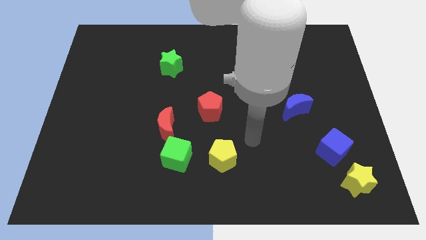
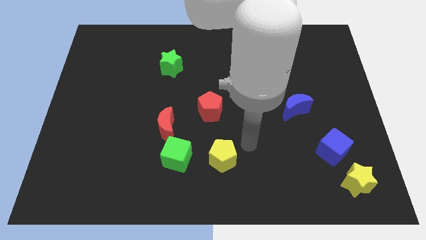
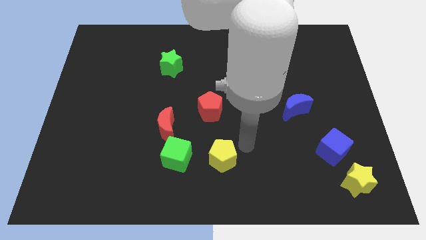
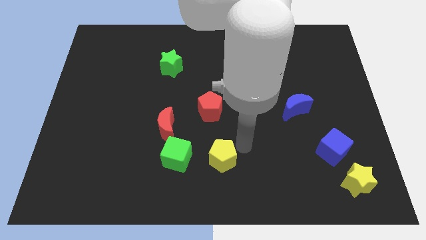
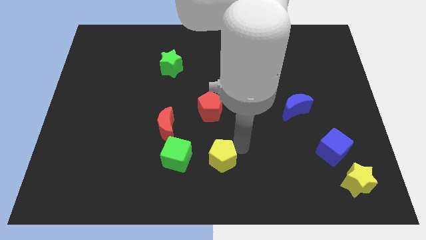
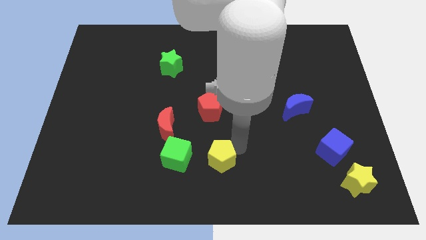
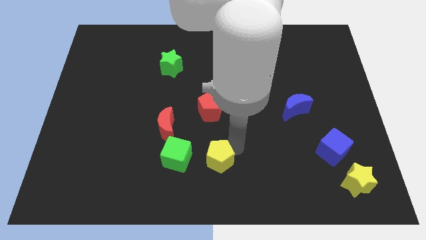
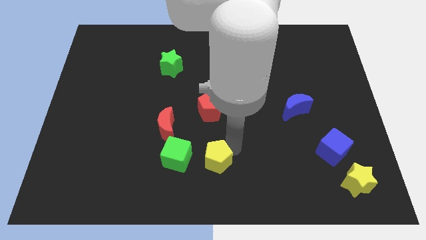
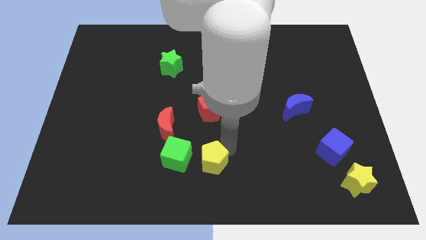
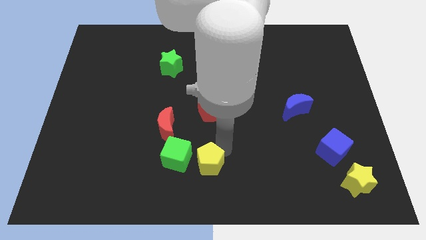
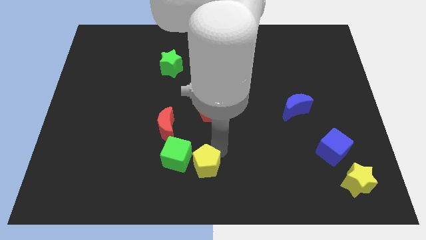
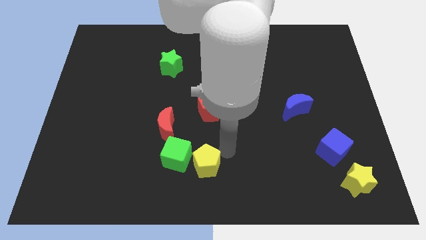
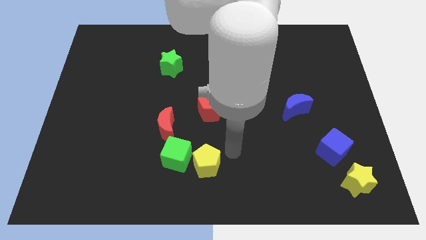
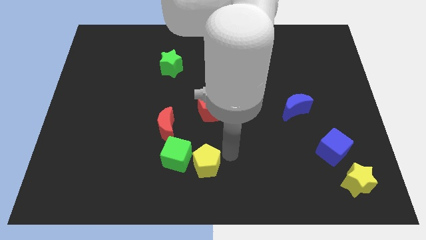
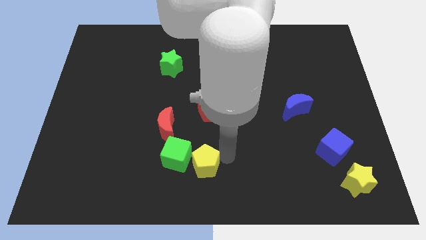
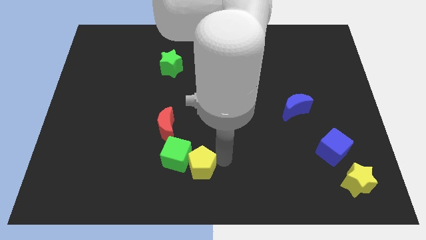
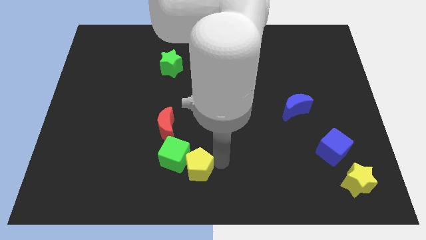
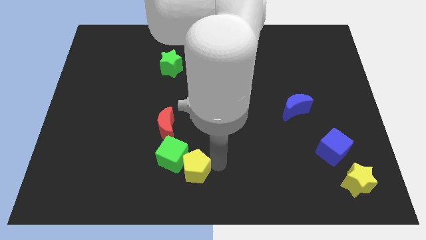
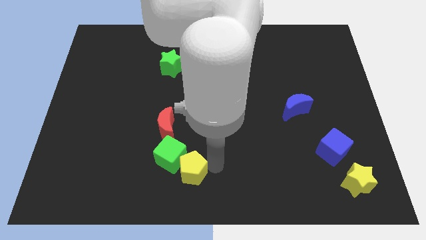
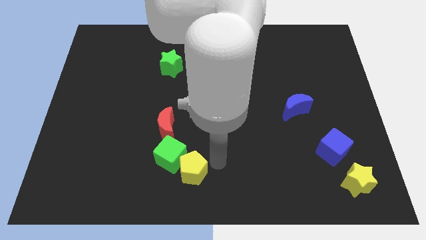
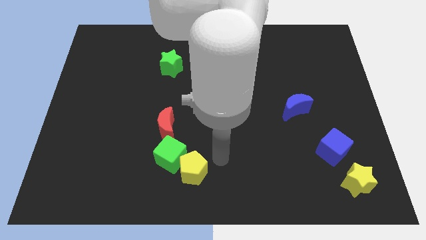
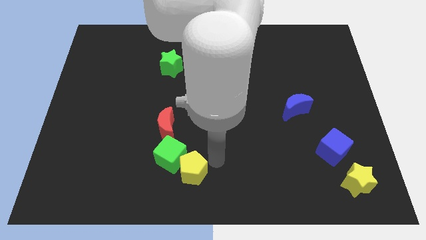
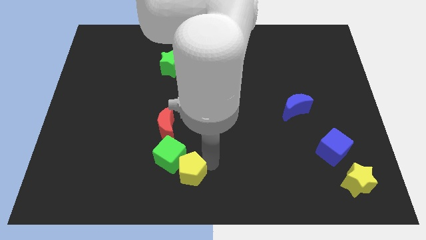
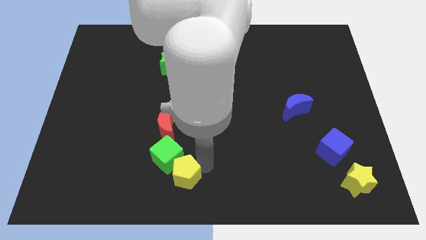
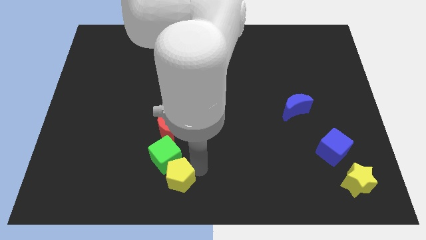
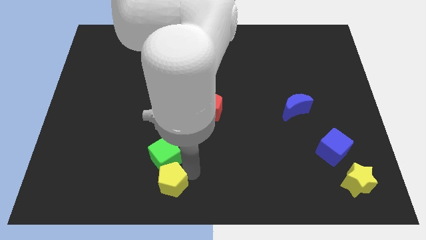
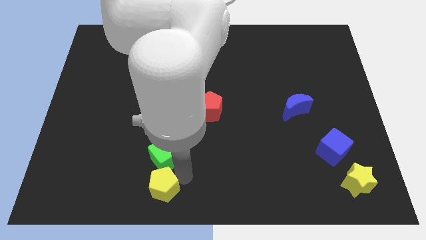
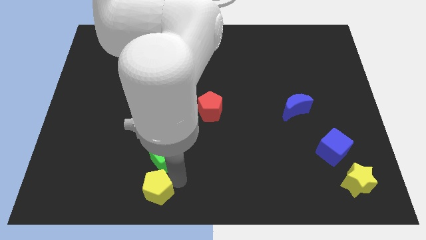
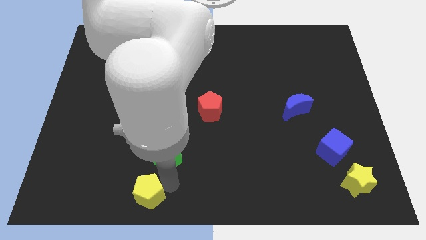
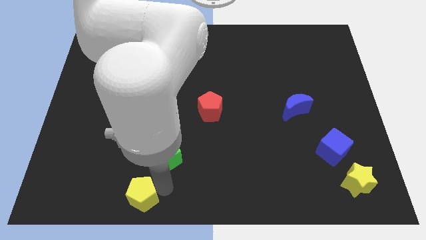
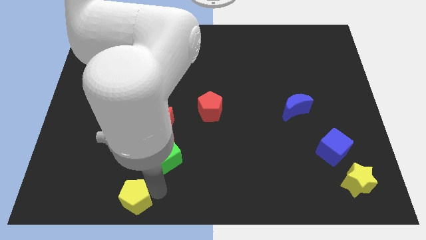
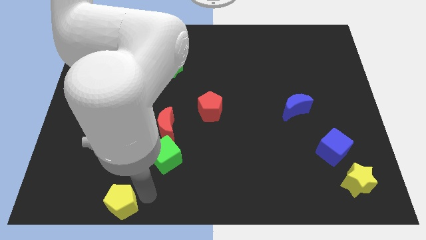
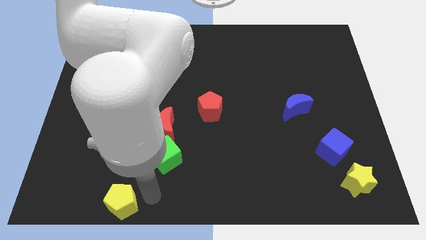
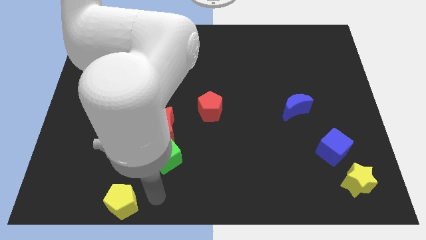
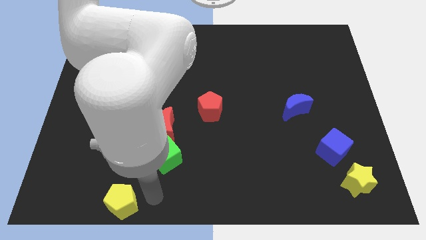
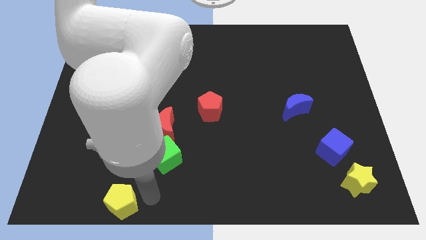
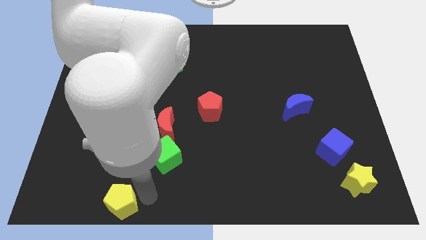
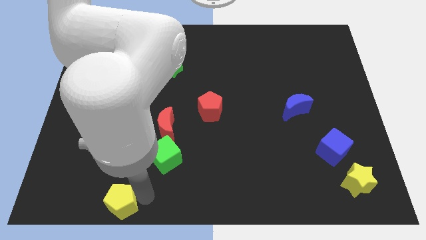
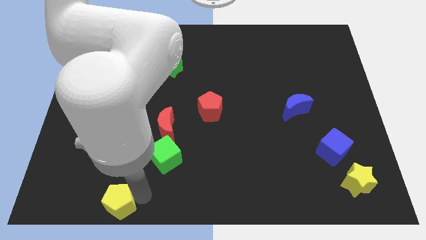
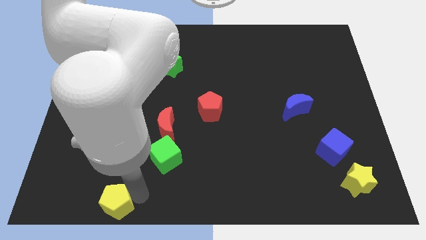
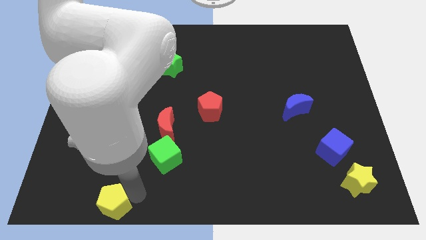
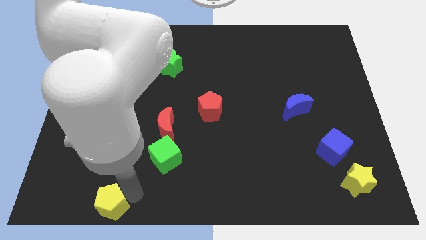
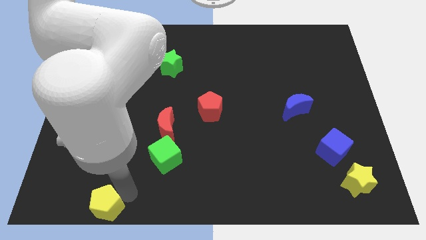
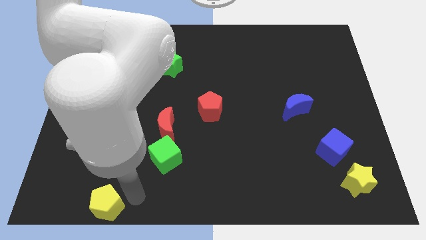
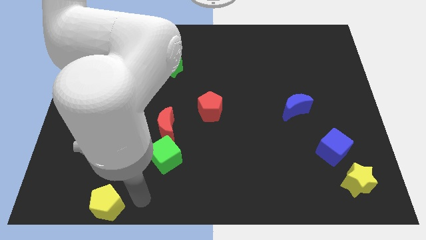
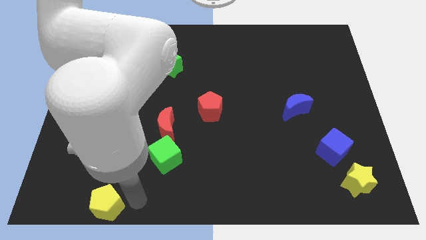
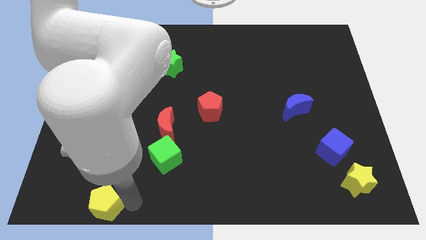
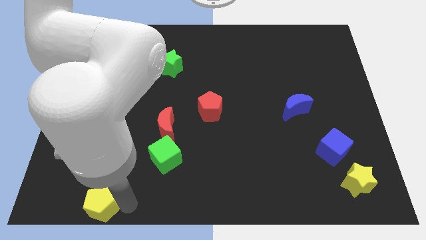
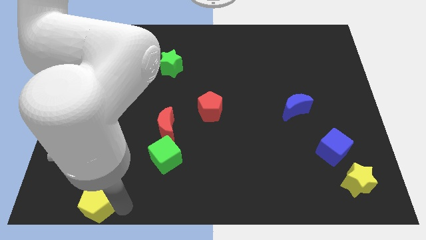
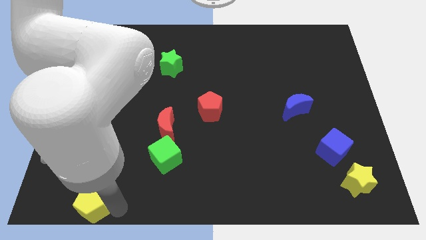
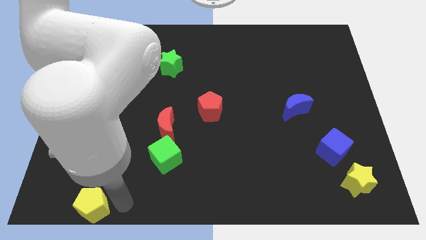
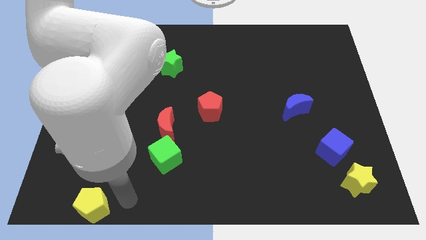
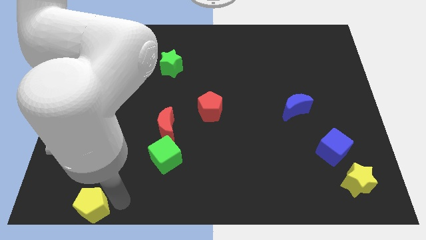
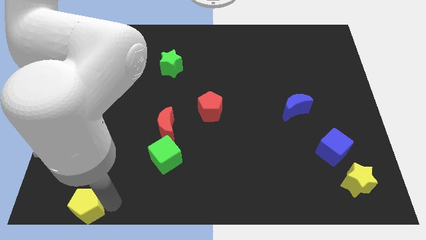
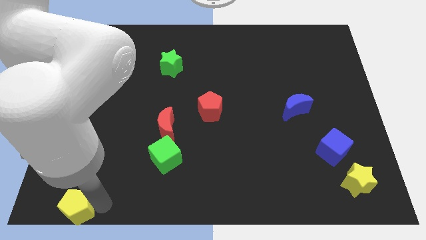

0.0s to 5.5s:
put the yellow pentagon to the bottom left

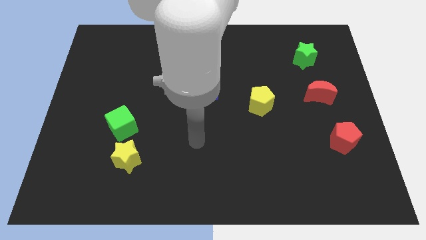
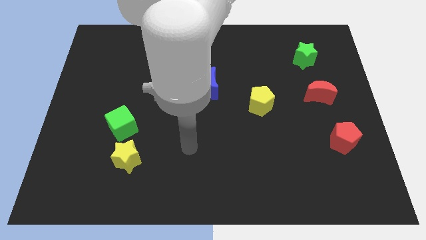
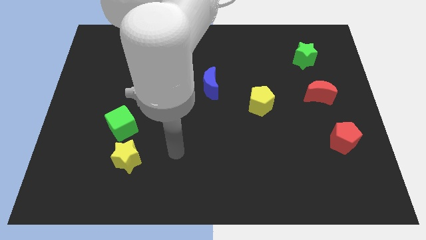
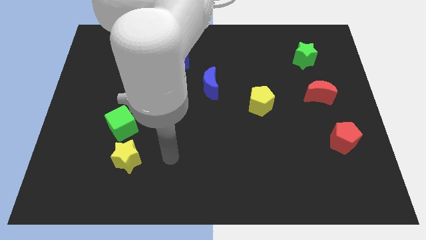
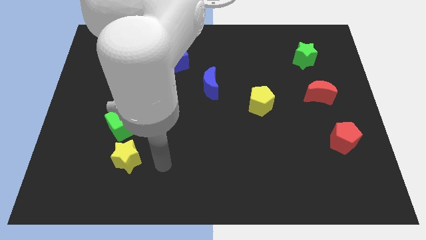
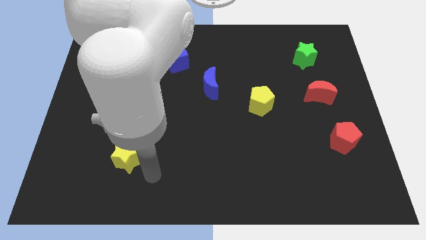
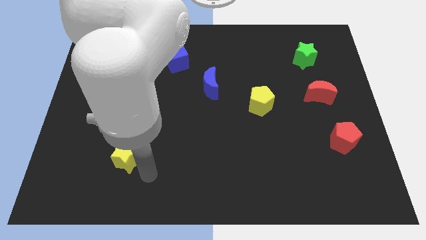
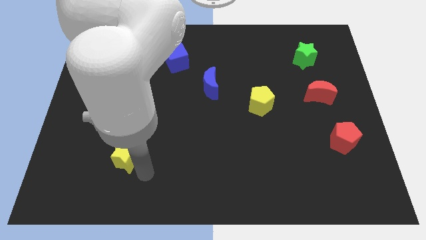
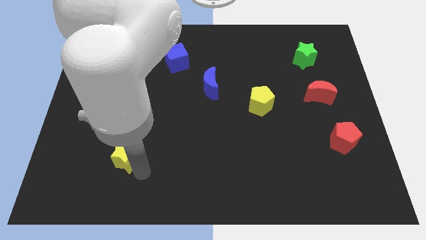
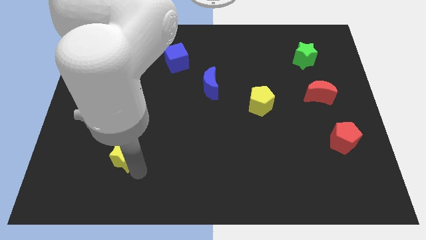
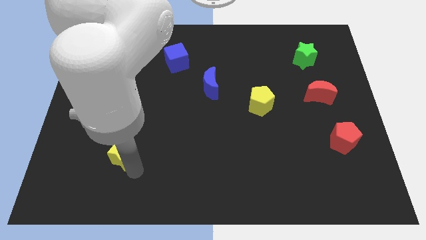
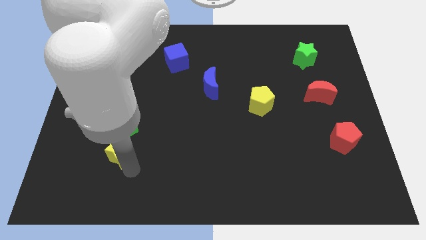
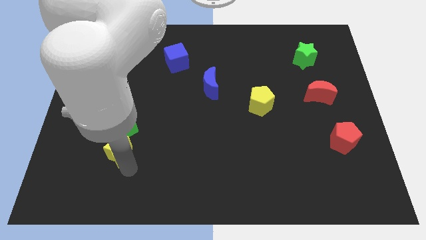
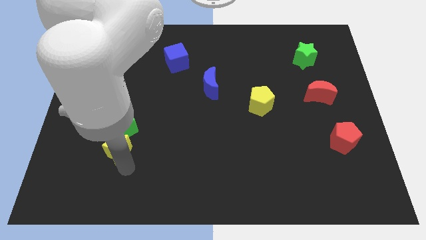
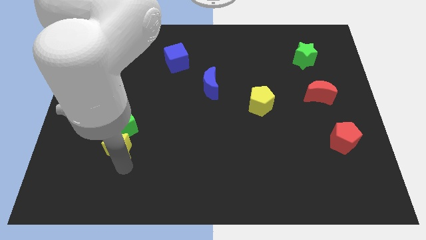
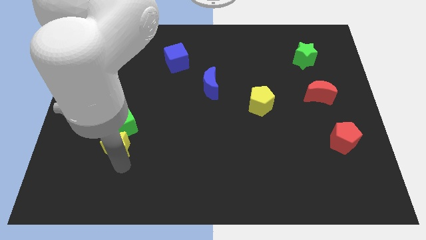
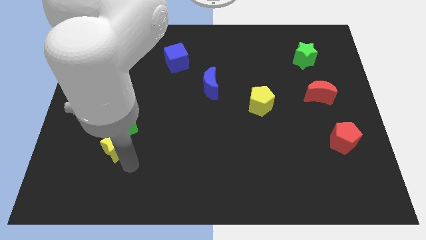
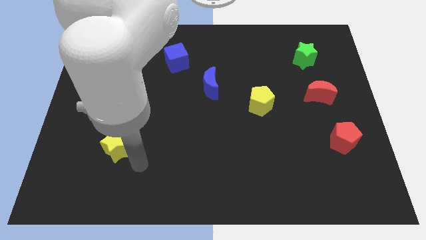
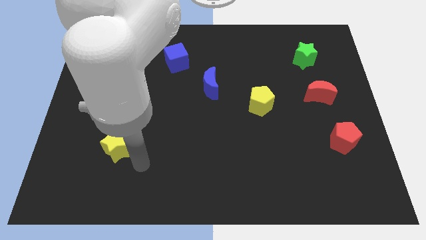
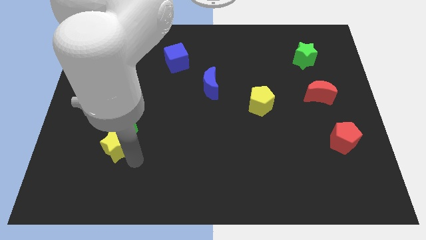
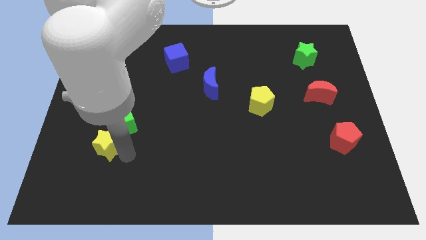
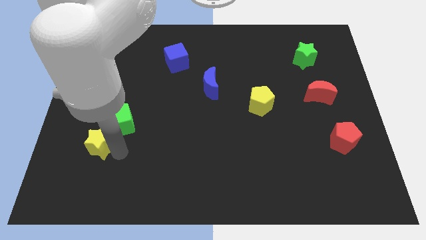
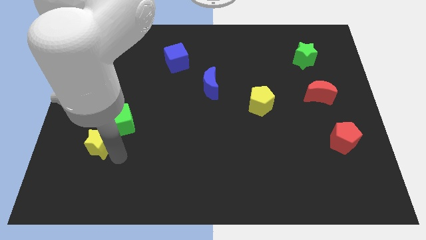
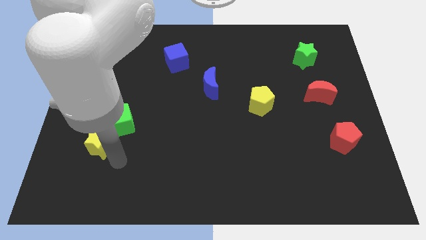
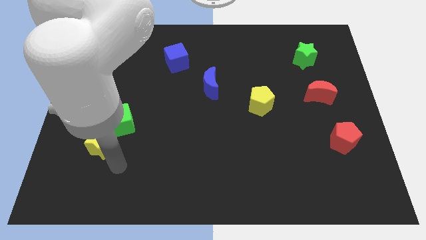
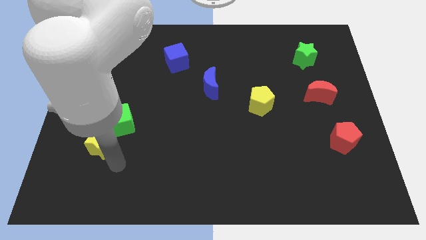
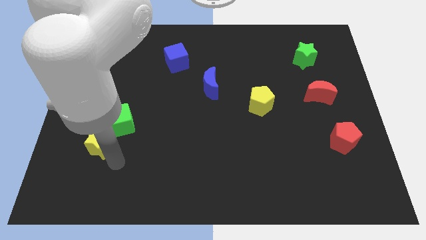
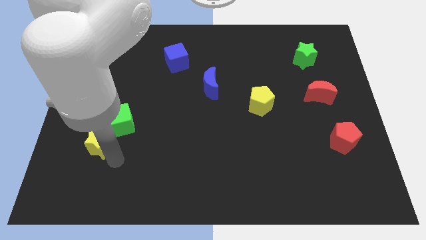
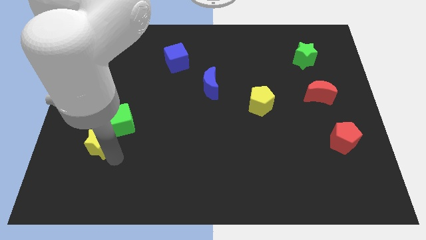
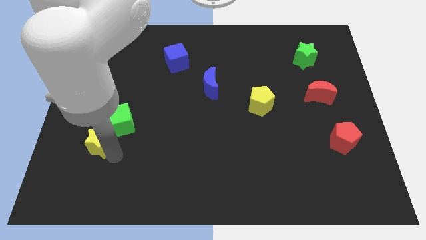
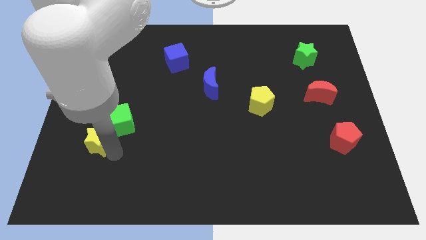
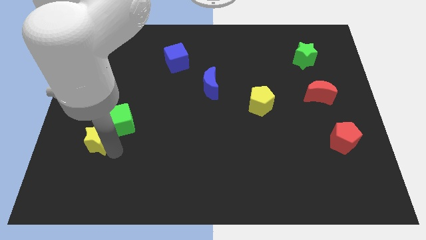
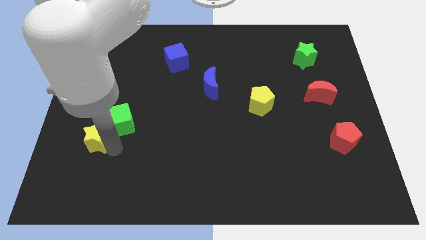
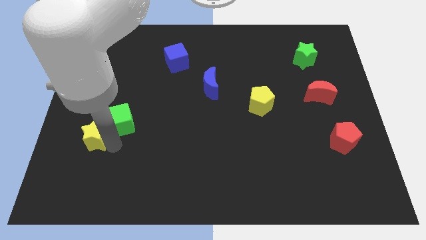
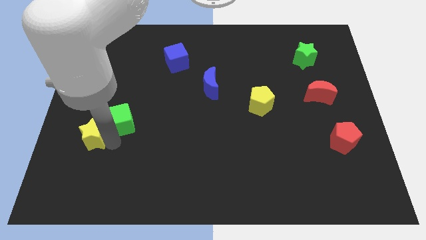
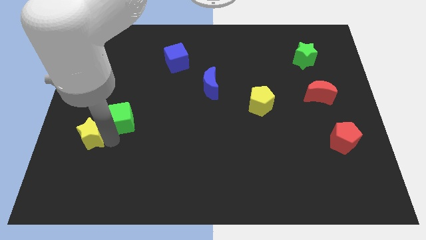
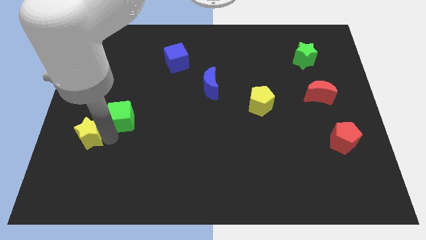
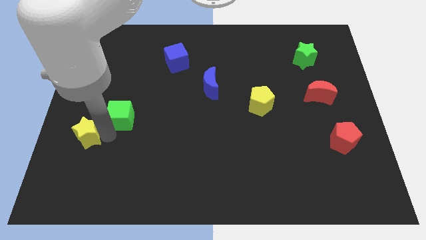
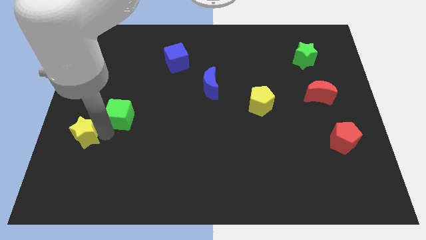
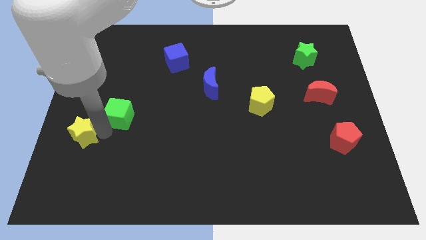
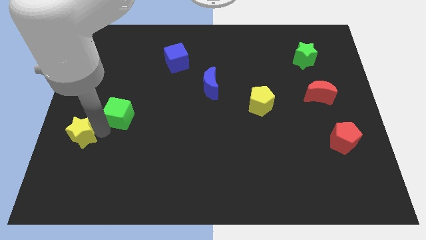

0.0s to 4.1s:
push the yellow star to the center left
